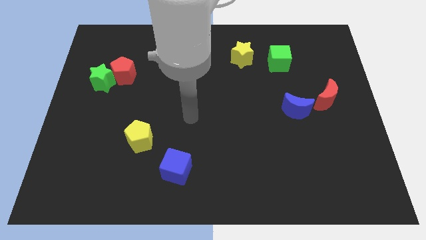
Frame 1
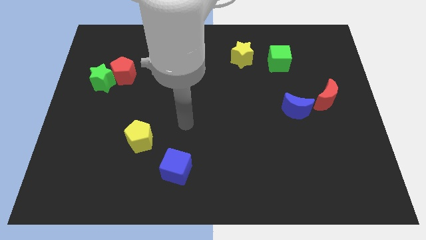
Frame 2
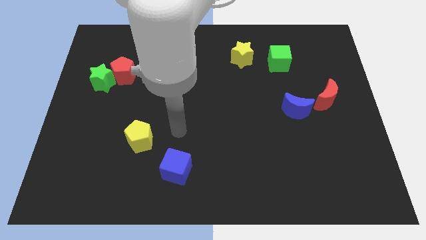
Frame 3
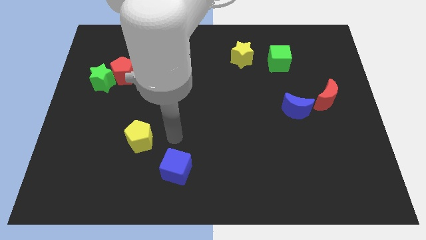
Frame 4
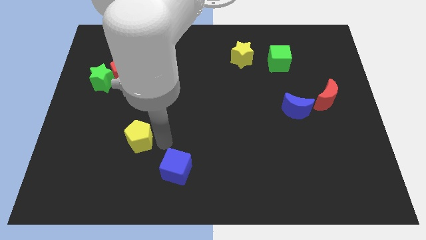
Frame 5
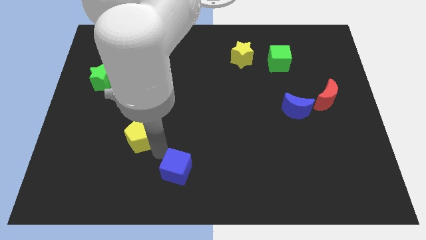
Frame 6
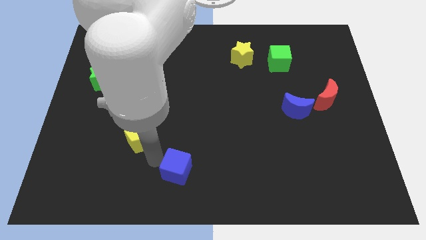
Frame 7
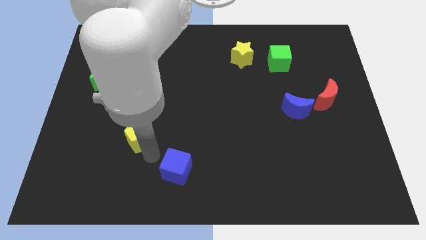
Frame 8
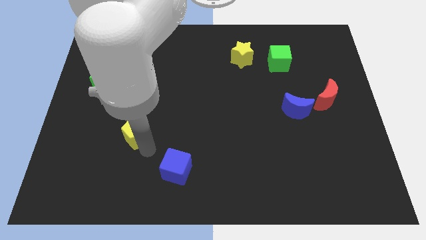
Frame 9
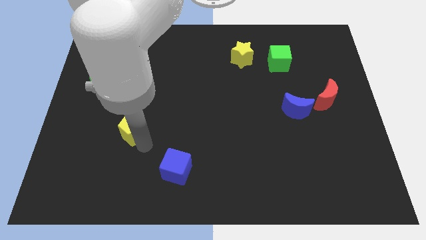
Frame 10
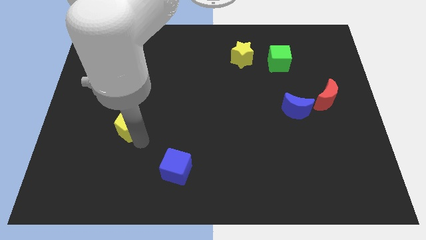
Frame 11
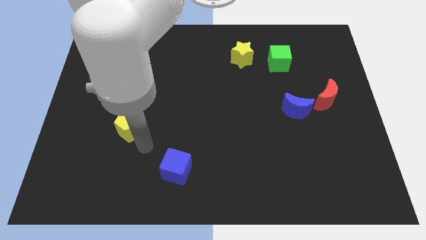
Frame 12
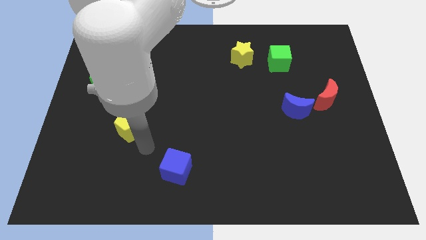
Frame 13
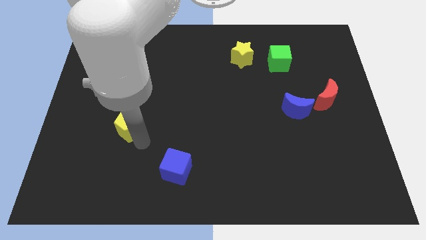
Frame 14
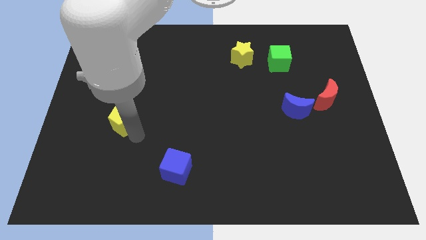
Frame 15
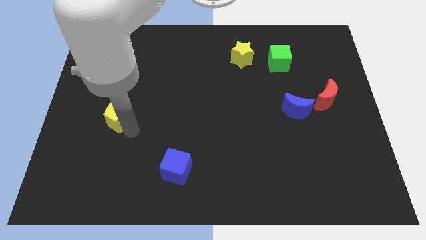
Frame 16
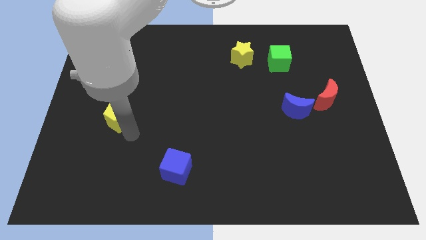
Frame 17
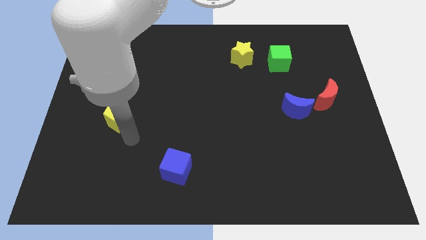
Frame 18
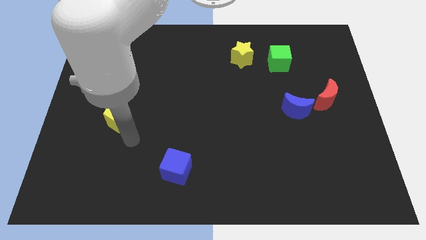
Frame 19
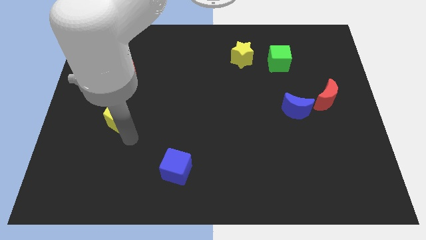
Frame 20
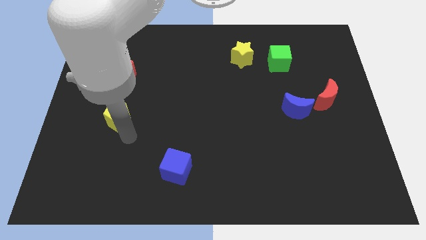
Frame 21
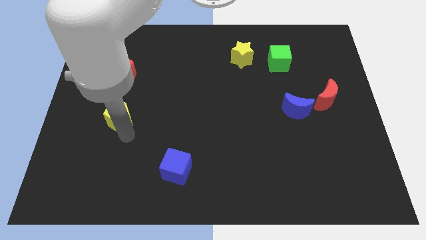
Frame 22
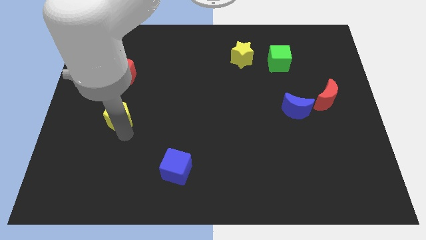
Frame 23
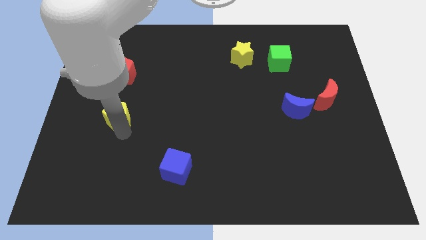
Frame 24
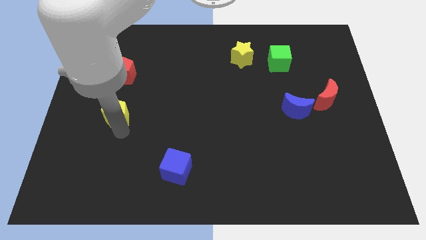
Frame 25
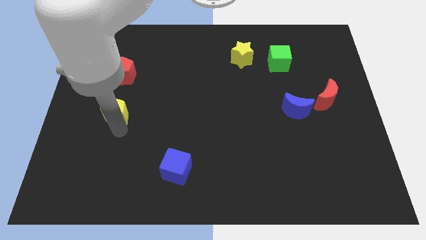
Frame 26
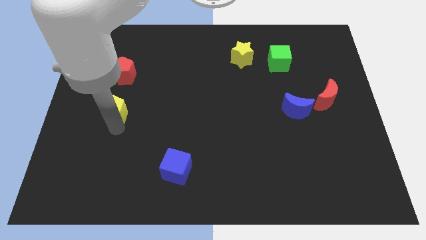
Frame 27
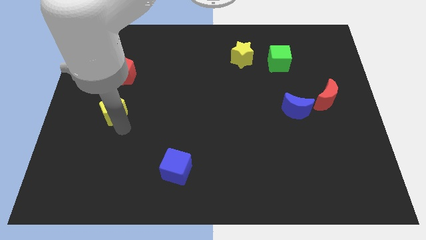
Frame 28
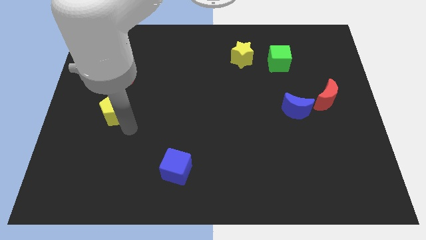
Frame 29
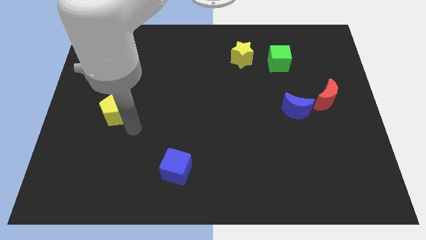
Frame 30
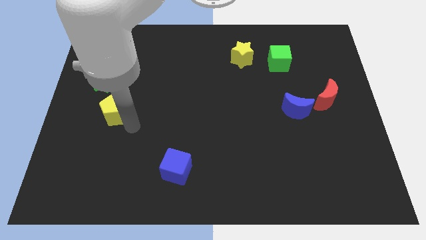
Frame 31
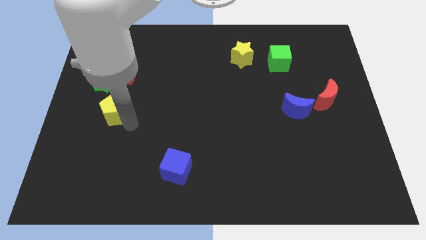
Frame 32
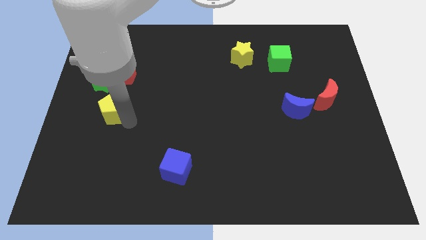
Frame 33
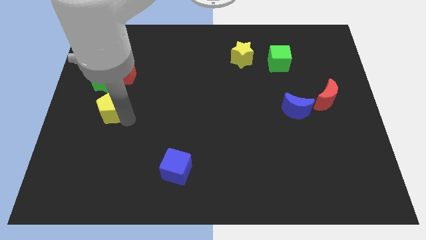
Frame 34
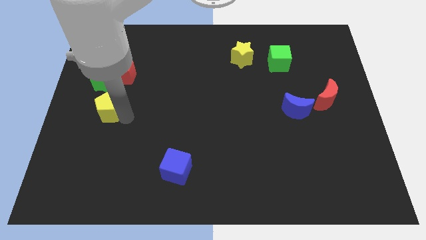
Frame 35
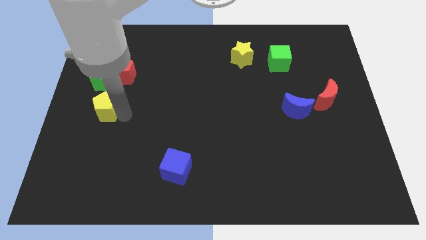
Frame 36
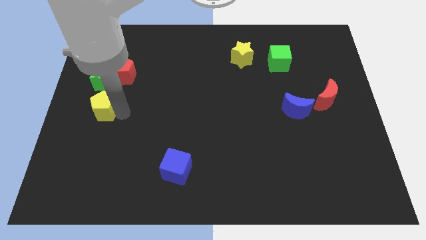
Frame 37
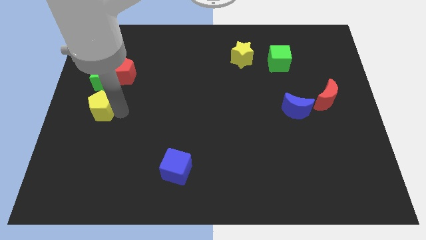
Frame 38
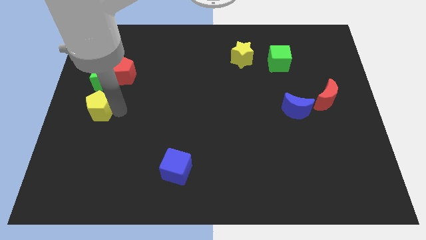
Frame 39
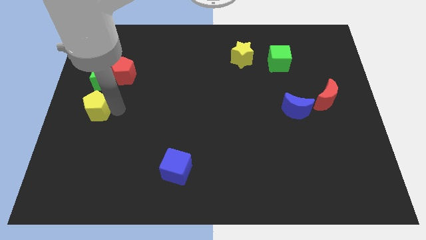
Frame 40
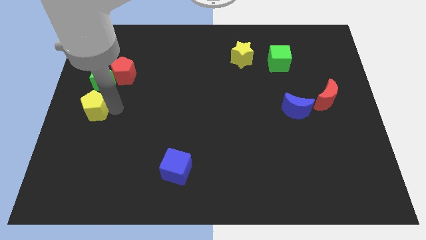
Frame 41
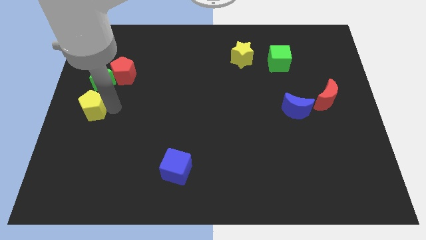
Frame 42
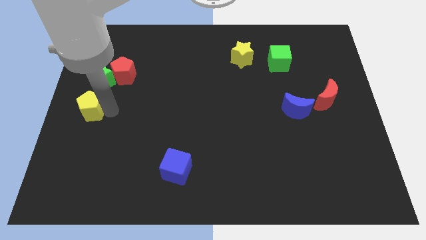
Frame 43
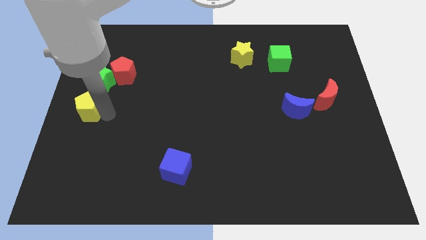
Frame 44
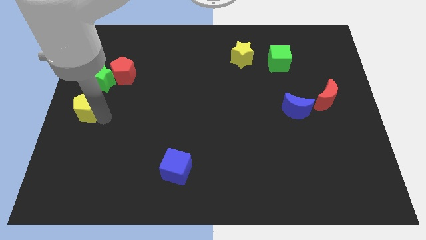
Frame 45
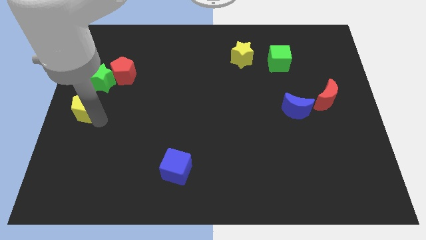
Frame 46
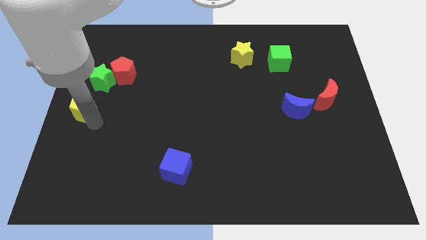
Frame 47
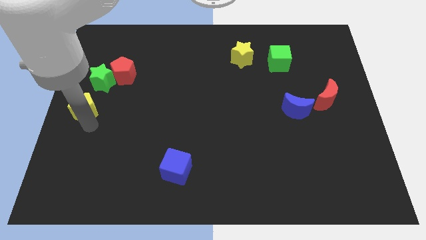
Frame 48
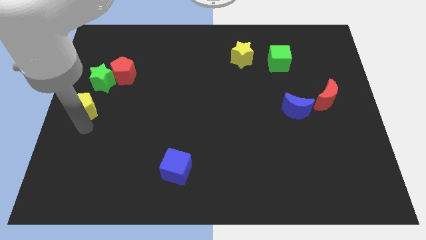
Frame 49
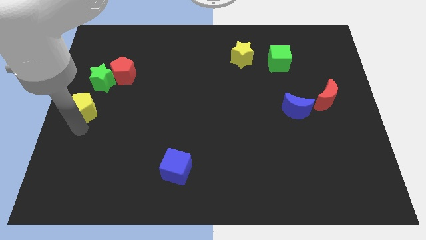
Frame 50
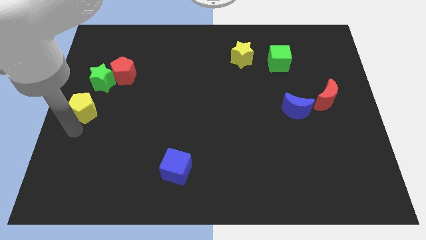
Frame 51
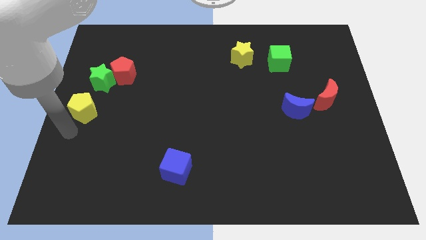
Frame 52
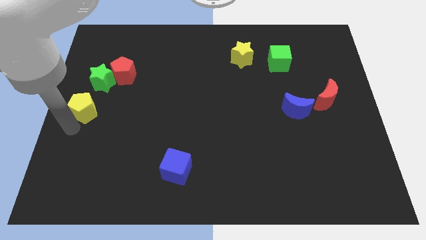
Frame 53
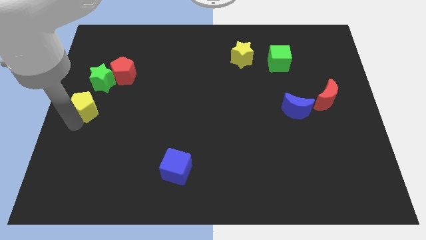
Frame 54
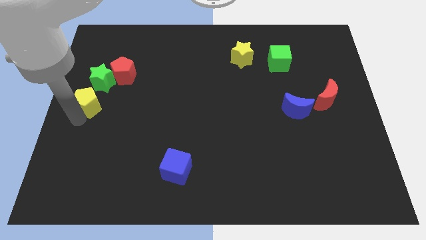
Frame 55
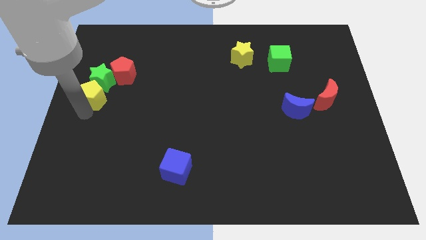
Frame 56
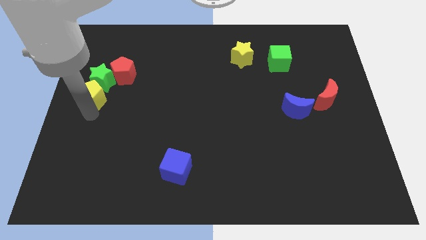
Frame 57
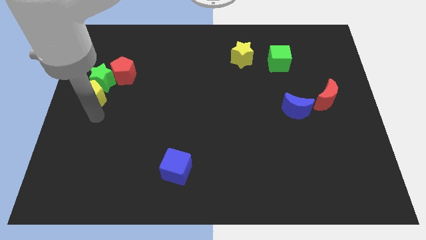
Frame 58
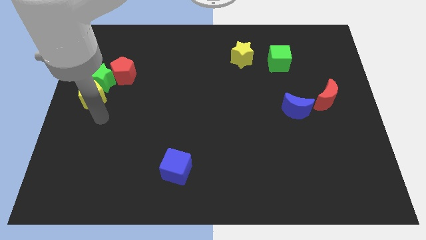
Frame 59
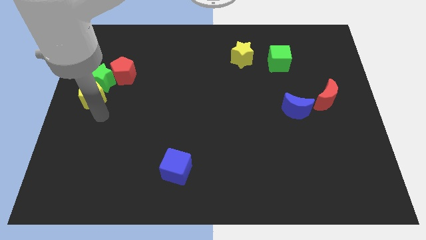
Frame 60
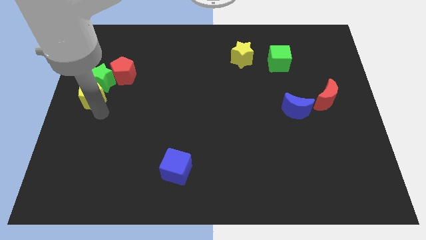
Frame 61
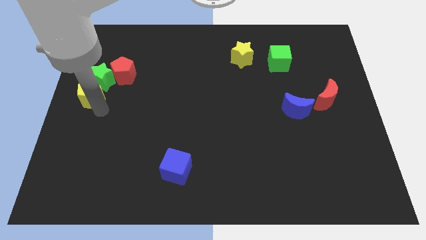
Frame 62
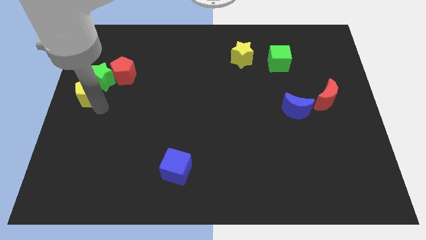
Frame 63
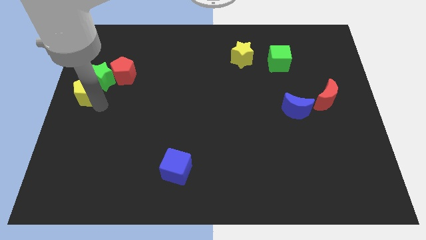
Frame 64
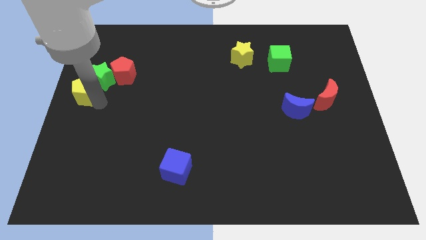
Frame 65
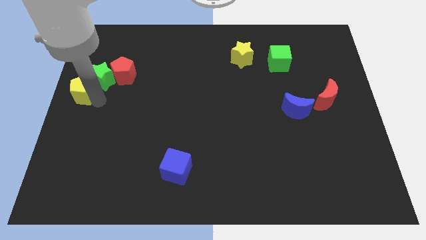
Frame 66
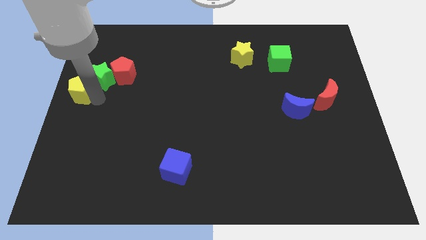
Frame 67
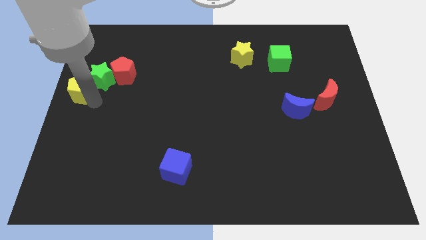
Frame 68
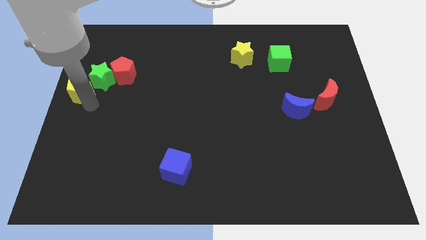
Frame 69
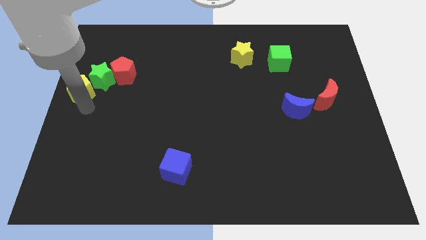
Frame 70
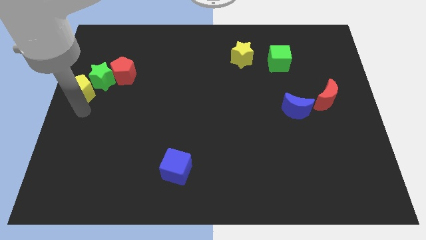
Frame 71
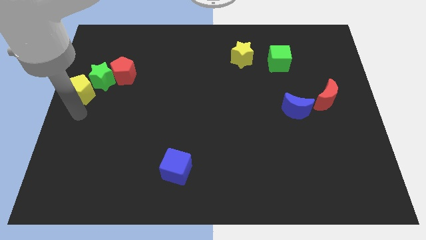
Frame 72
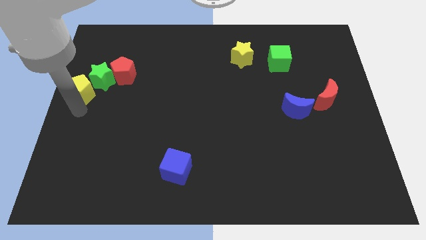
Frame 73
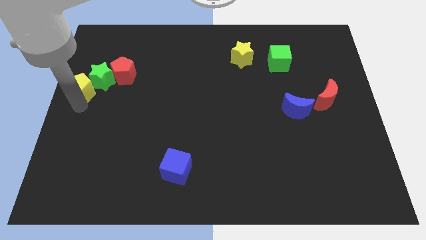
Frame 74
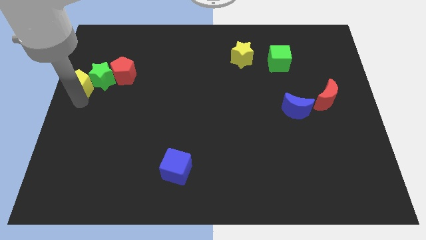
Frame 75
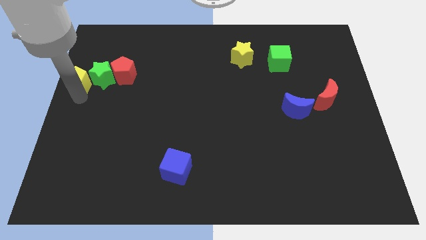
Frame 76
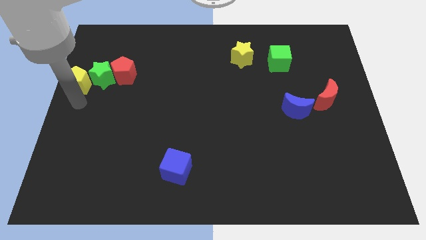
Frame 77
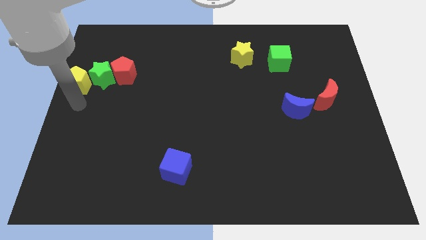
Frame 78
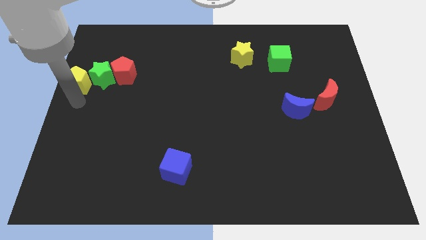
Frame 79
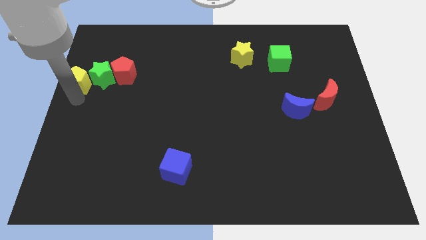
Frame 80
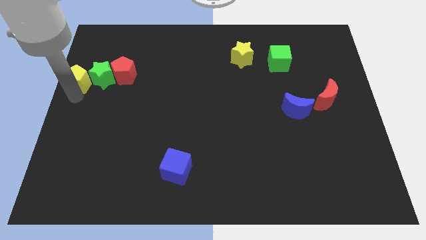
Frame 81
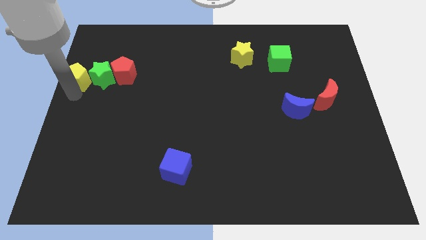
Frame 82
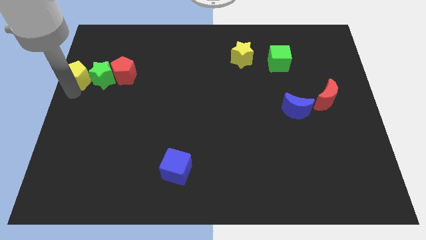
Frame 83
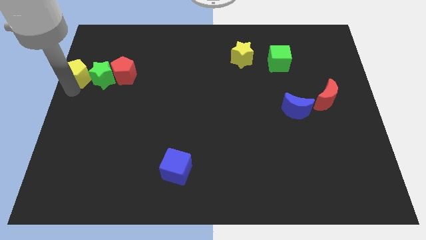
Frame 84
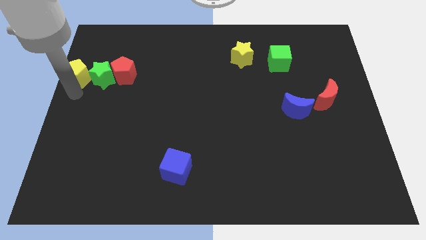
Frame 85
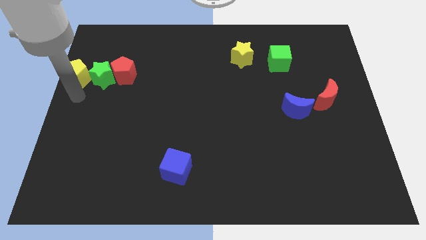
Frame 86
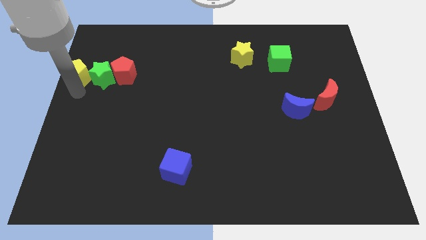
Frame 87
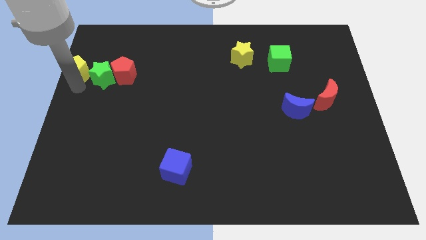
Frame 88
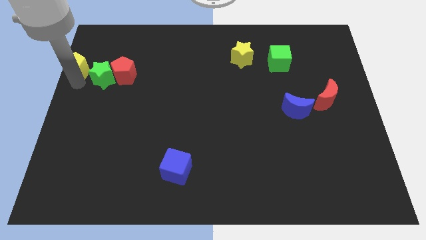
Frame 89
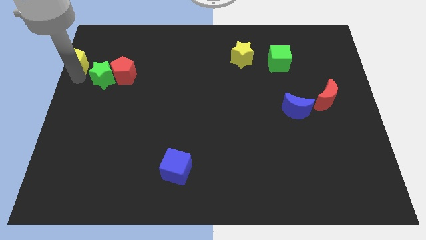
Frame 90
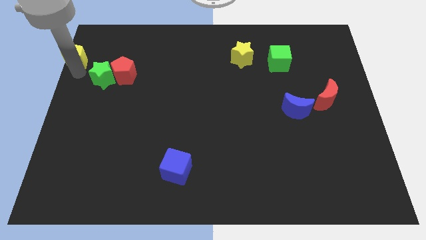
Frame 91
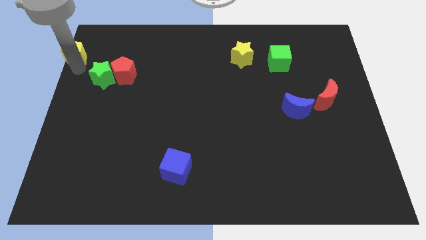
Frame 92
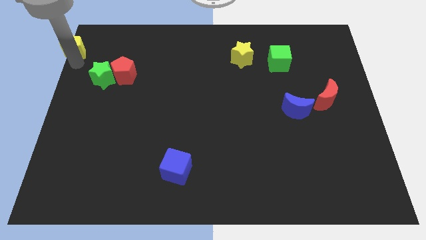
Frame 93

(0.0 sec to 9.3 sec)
put the yellow pentagon to the top left corner
